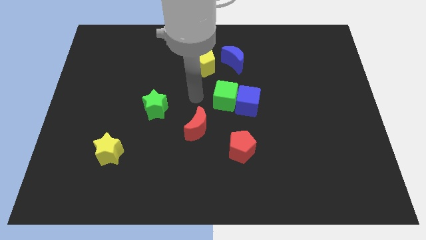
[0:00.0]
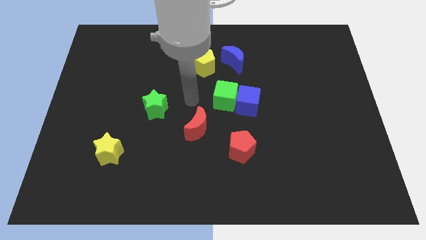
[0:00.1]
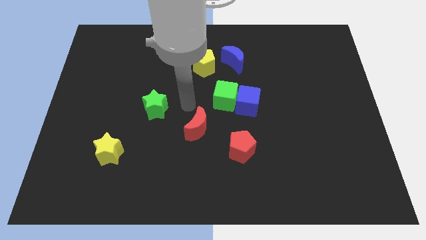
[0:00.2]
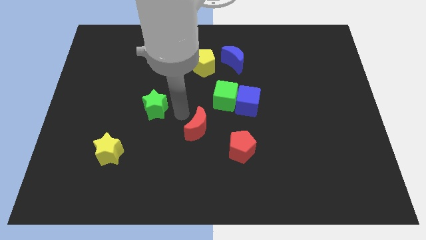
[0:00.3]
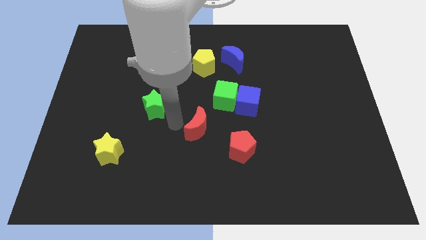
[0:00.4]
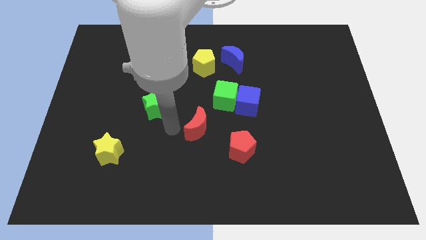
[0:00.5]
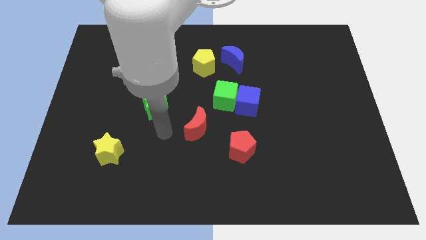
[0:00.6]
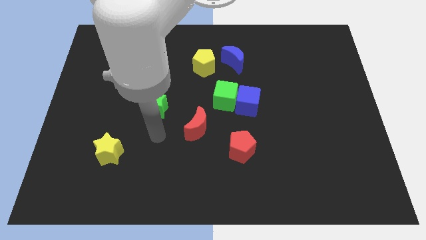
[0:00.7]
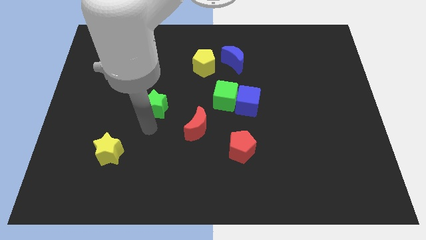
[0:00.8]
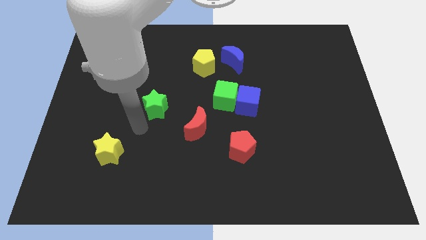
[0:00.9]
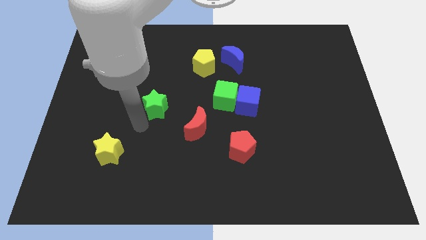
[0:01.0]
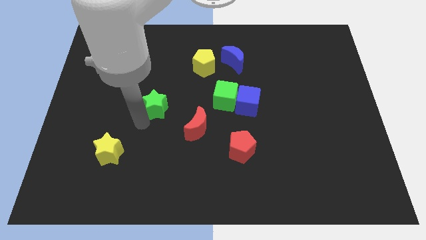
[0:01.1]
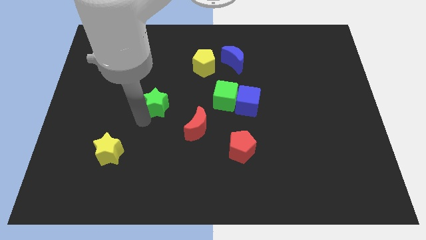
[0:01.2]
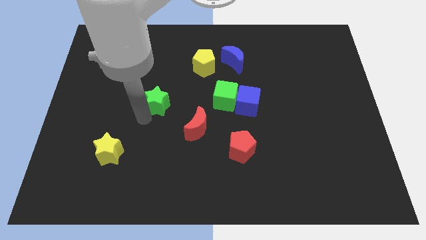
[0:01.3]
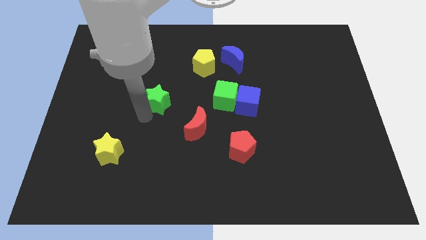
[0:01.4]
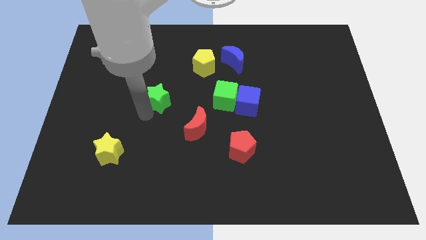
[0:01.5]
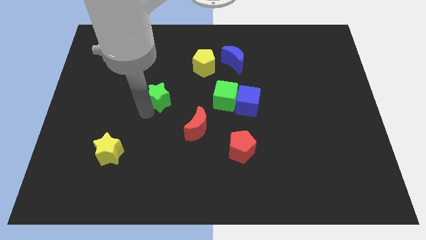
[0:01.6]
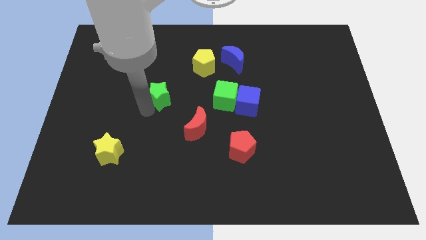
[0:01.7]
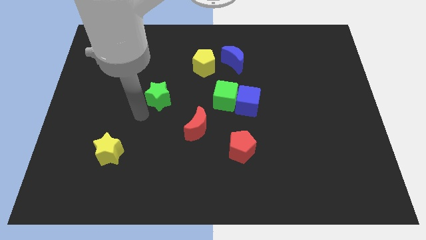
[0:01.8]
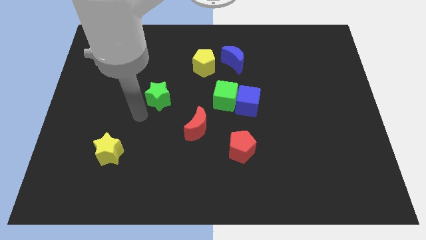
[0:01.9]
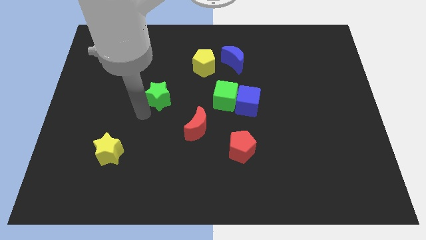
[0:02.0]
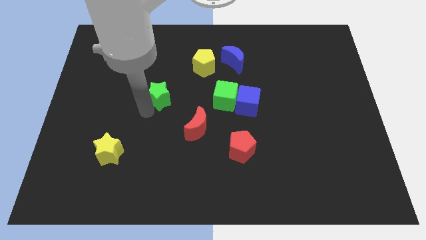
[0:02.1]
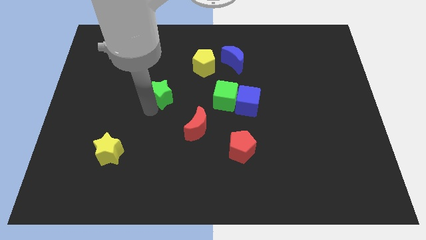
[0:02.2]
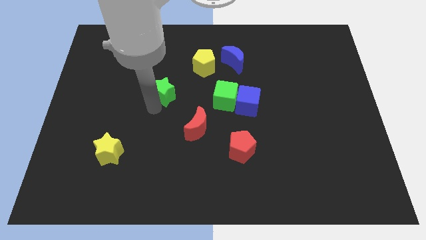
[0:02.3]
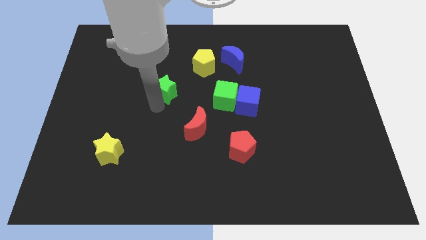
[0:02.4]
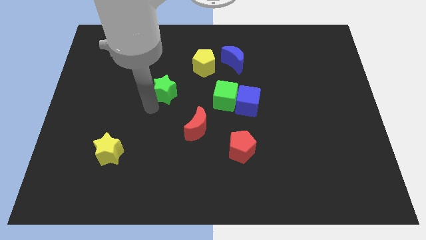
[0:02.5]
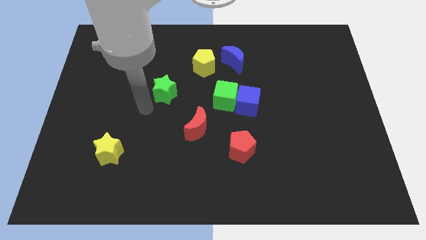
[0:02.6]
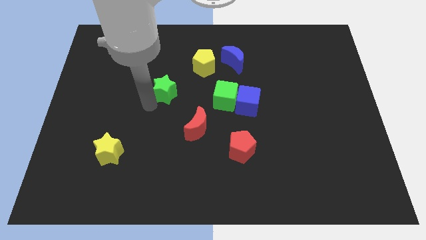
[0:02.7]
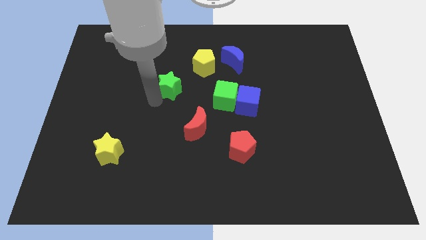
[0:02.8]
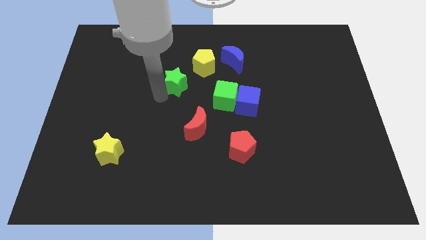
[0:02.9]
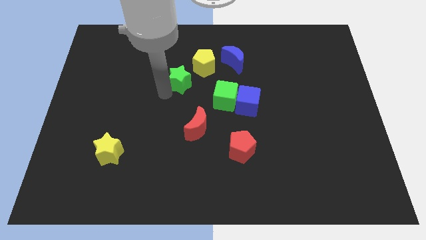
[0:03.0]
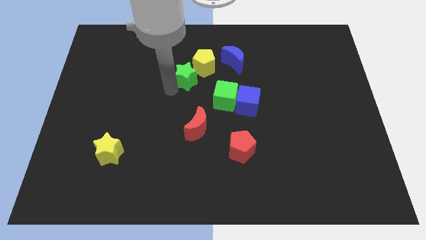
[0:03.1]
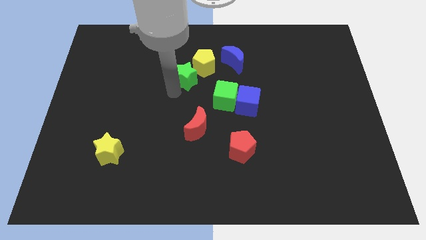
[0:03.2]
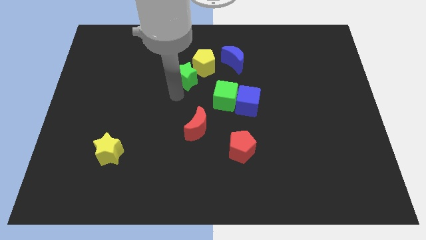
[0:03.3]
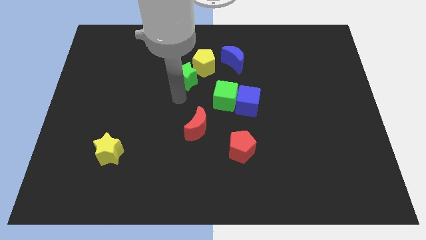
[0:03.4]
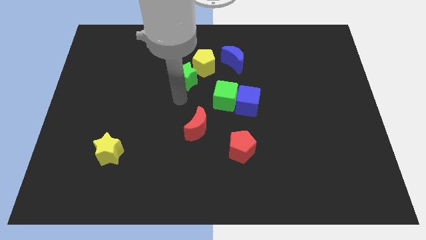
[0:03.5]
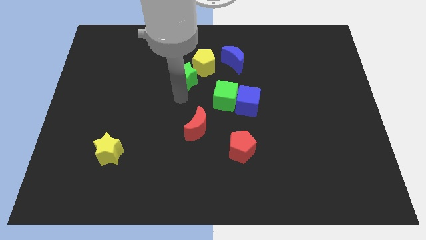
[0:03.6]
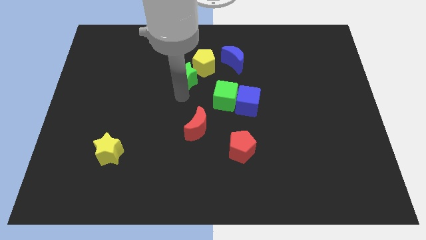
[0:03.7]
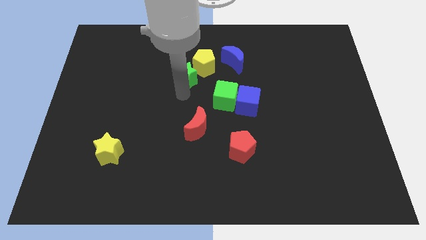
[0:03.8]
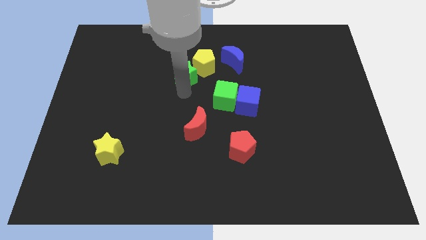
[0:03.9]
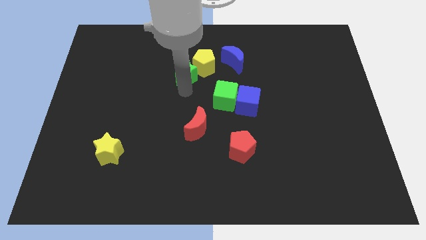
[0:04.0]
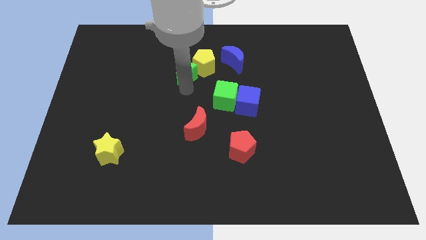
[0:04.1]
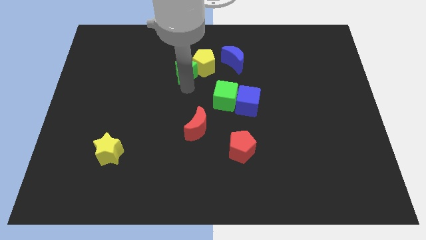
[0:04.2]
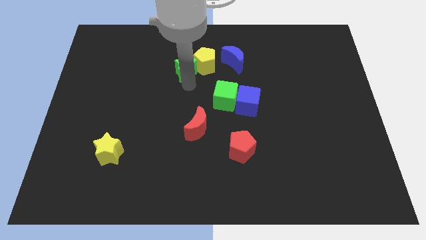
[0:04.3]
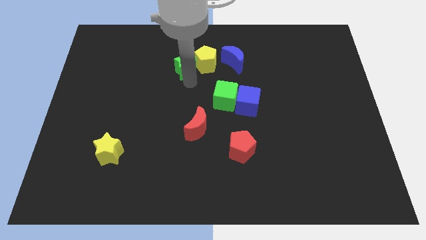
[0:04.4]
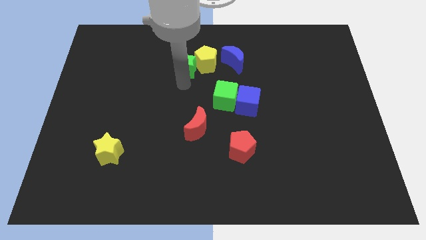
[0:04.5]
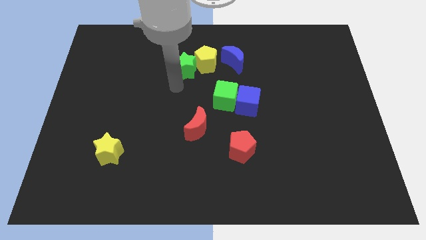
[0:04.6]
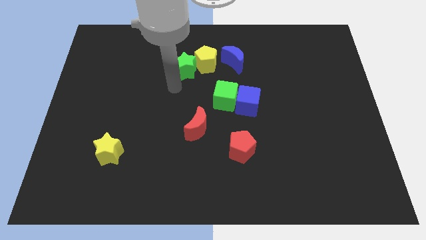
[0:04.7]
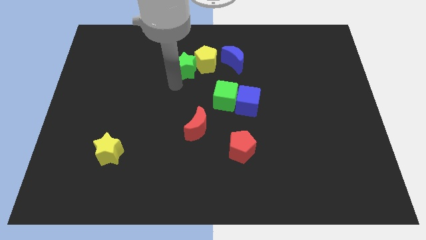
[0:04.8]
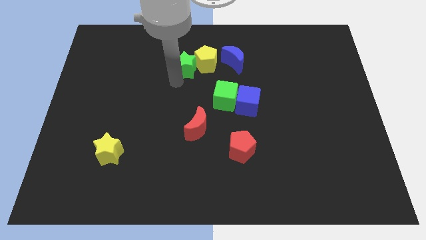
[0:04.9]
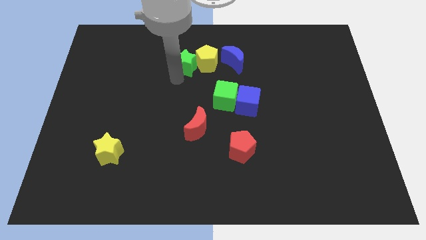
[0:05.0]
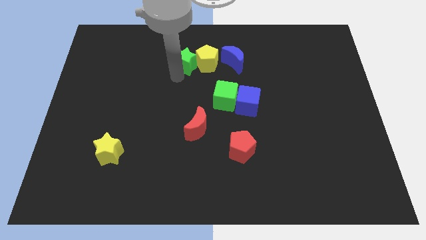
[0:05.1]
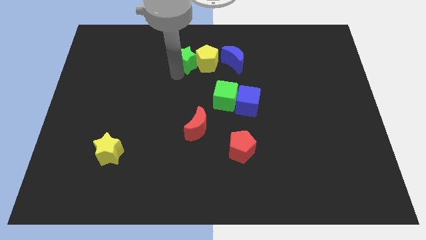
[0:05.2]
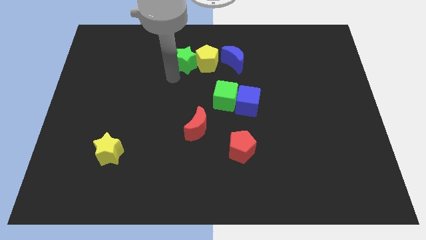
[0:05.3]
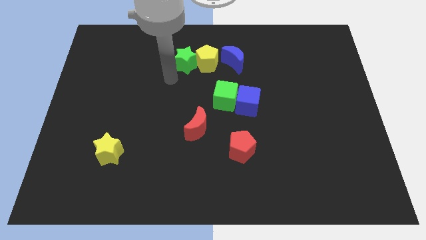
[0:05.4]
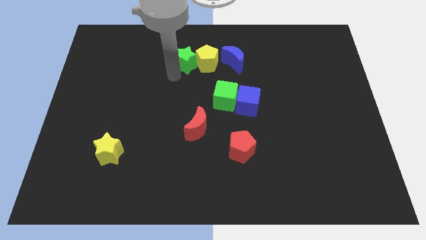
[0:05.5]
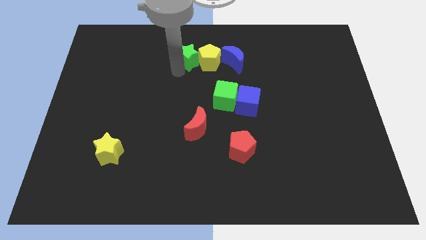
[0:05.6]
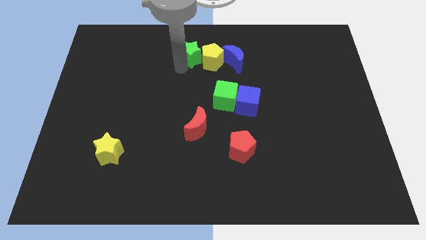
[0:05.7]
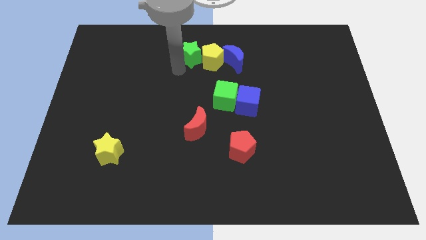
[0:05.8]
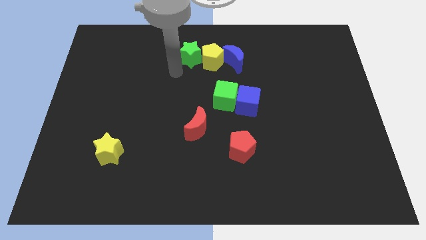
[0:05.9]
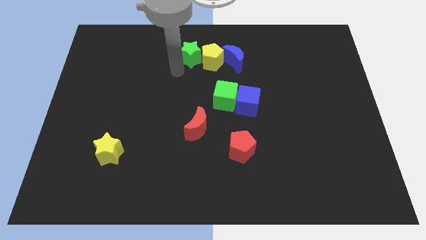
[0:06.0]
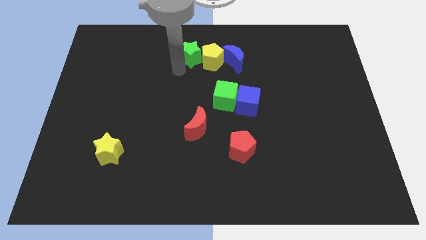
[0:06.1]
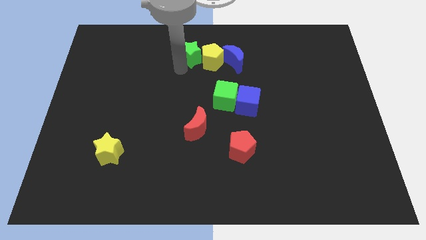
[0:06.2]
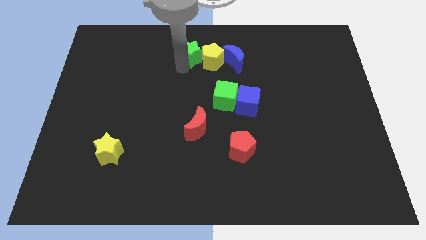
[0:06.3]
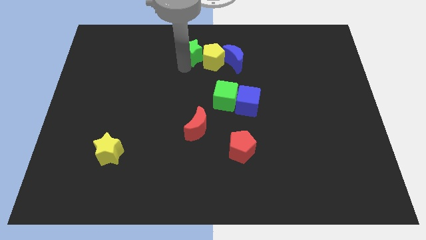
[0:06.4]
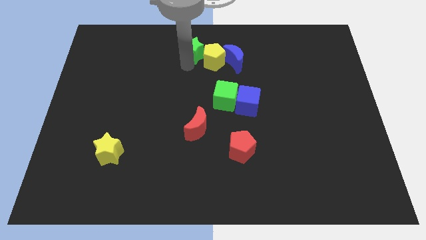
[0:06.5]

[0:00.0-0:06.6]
move the green star to the top
